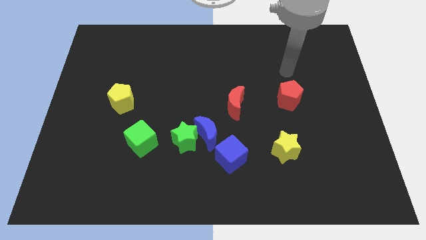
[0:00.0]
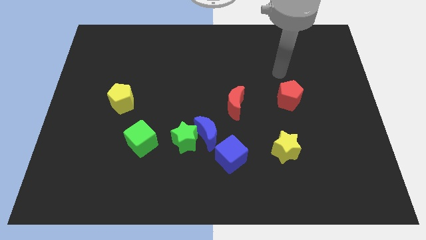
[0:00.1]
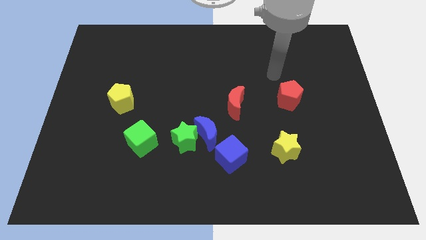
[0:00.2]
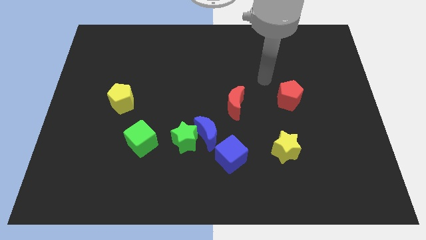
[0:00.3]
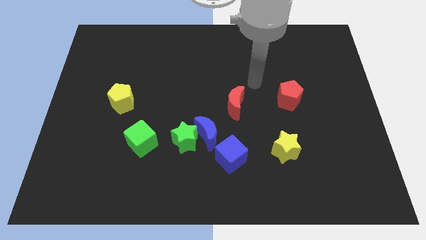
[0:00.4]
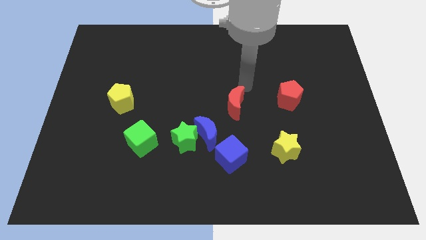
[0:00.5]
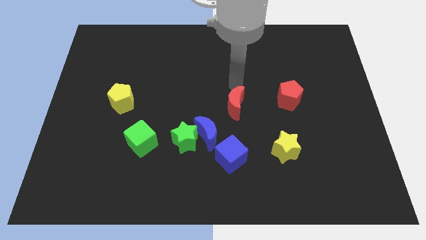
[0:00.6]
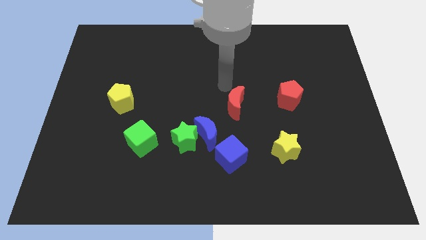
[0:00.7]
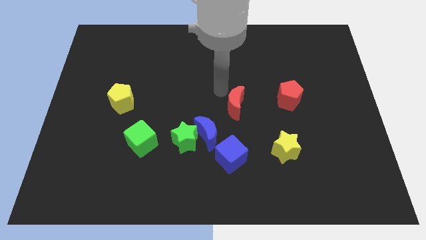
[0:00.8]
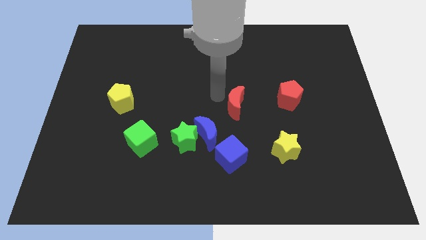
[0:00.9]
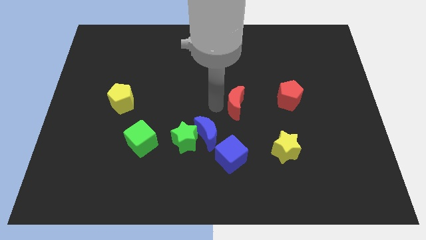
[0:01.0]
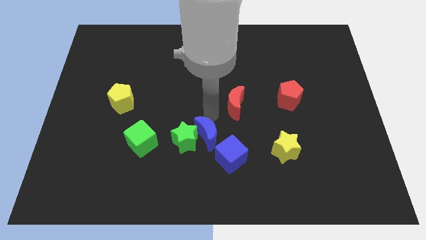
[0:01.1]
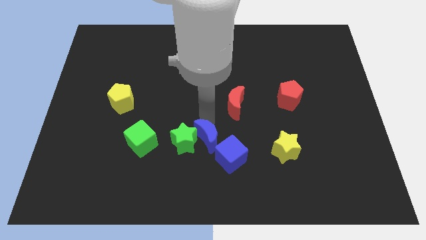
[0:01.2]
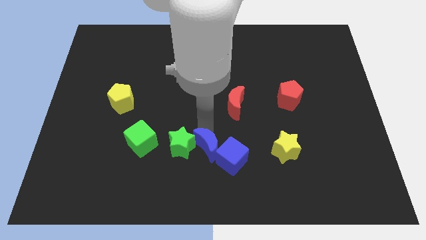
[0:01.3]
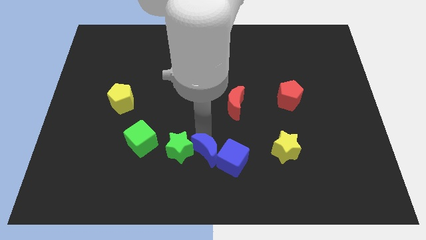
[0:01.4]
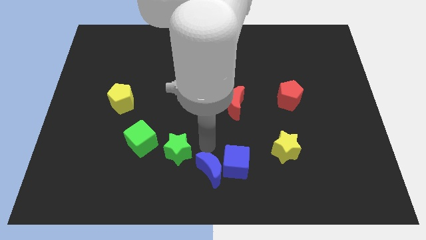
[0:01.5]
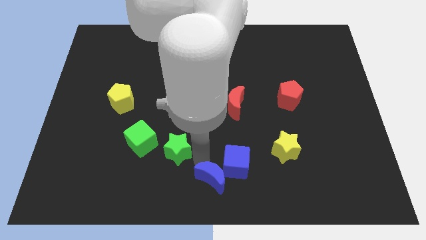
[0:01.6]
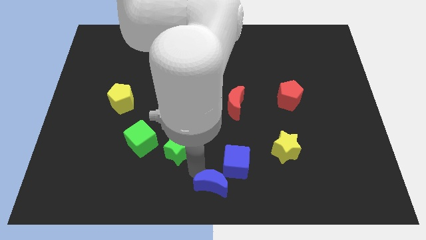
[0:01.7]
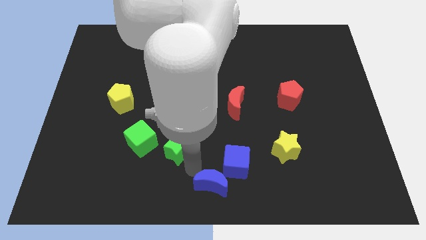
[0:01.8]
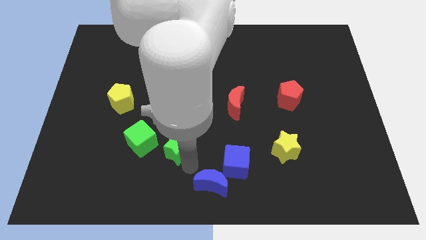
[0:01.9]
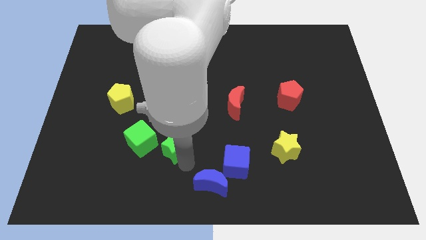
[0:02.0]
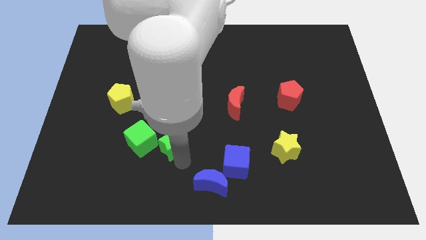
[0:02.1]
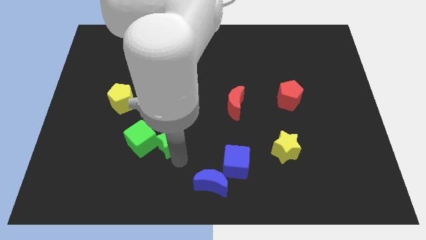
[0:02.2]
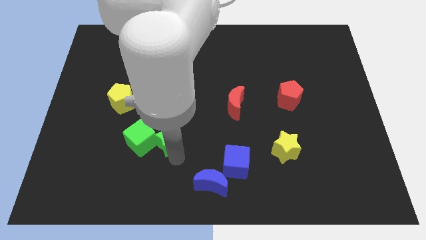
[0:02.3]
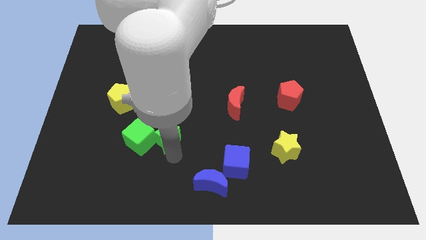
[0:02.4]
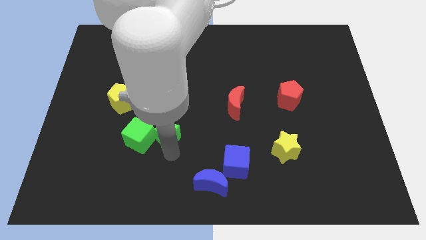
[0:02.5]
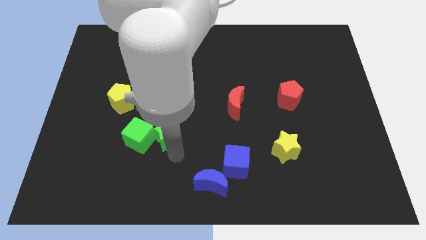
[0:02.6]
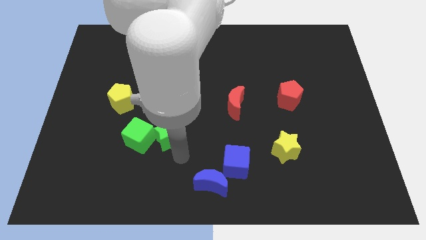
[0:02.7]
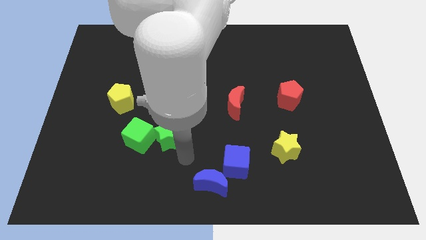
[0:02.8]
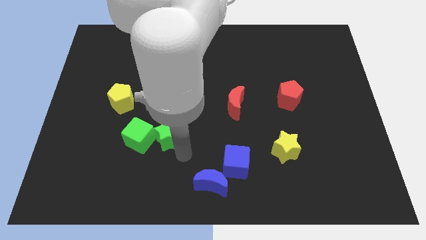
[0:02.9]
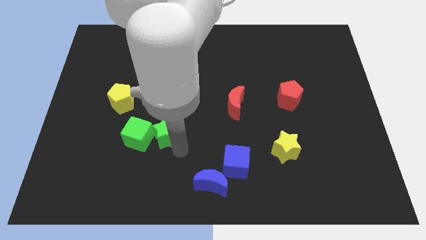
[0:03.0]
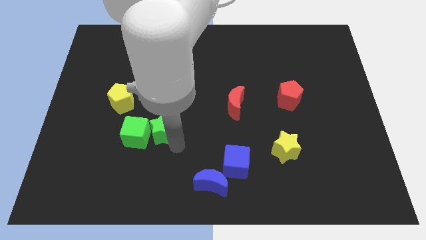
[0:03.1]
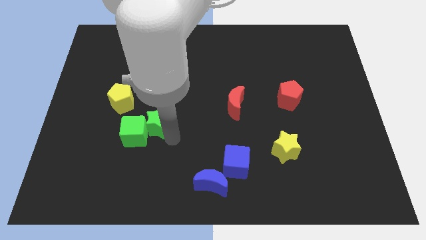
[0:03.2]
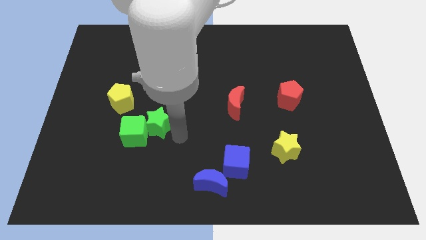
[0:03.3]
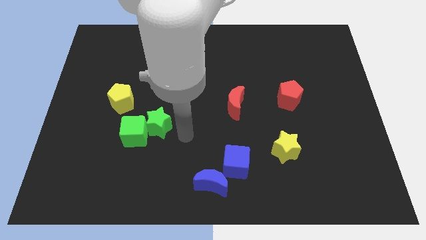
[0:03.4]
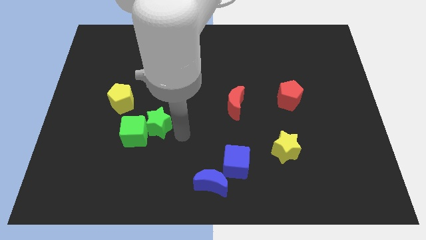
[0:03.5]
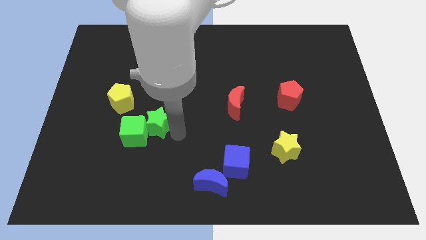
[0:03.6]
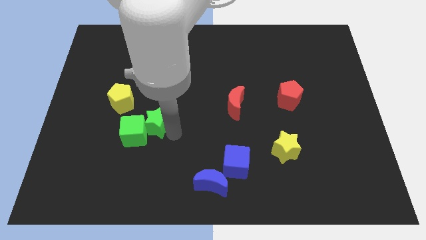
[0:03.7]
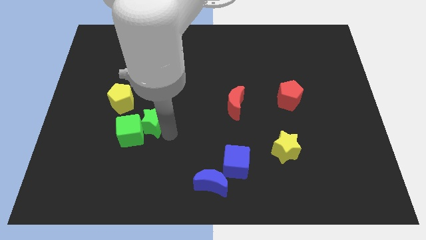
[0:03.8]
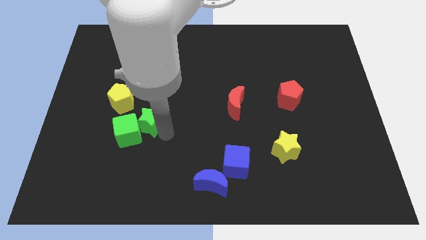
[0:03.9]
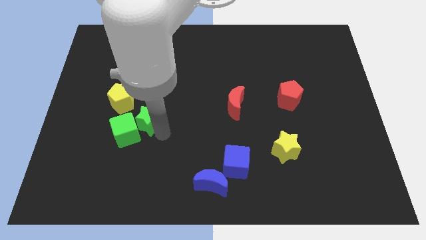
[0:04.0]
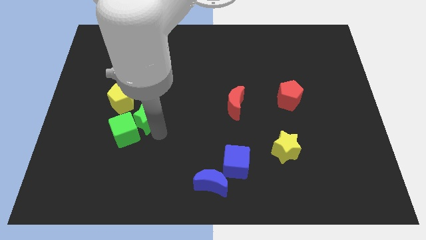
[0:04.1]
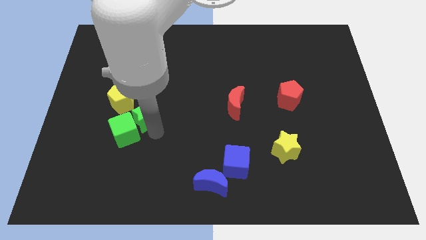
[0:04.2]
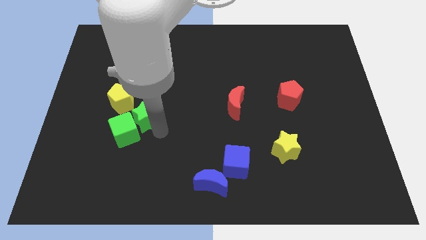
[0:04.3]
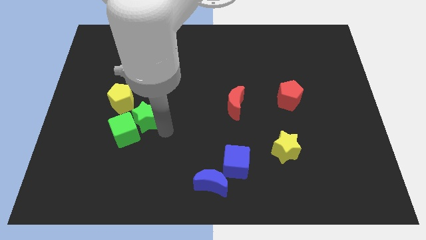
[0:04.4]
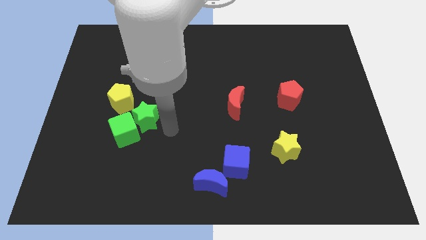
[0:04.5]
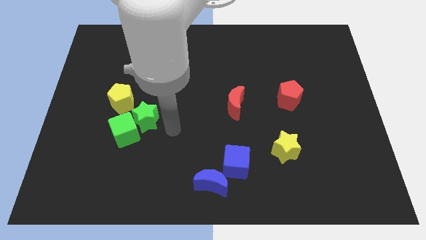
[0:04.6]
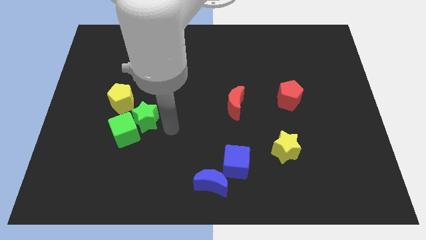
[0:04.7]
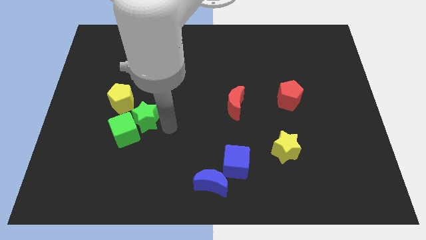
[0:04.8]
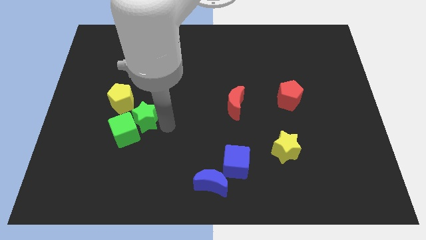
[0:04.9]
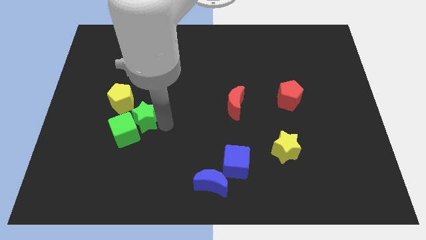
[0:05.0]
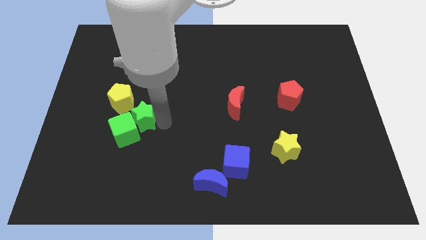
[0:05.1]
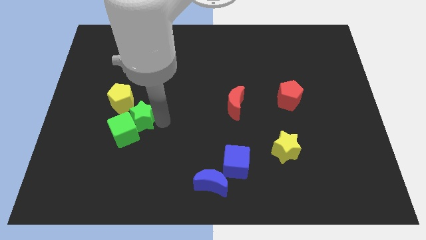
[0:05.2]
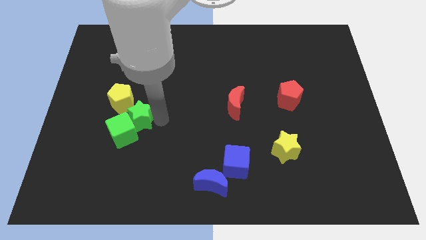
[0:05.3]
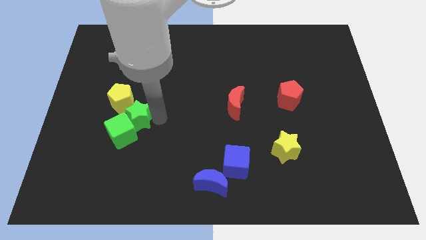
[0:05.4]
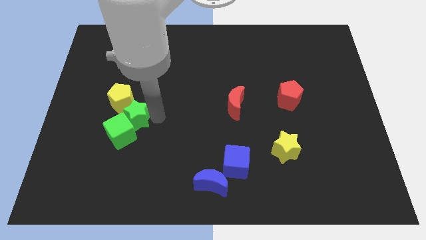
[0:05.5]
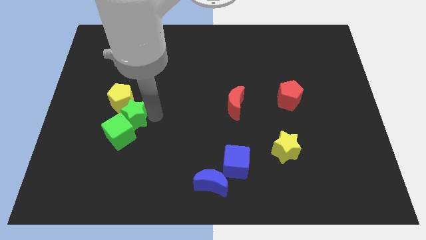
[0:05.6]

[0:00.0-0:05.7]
move the green star next to the yellow pentagon

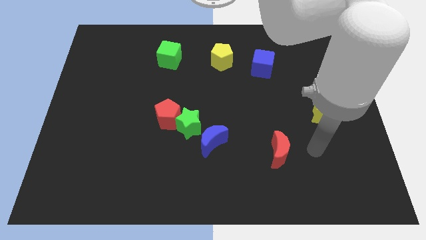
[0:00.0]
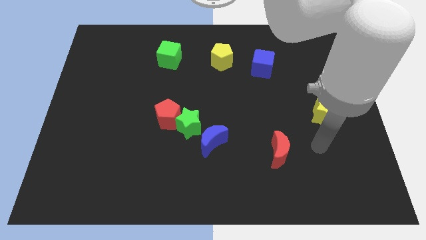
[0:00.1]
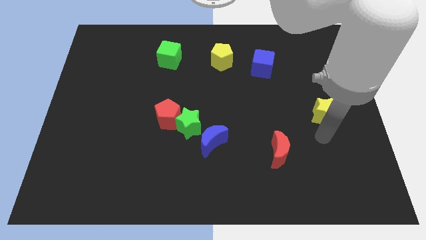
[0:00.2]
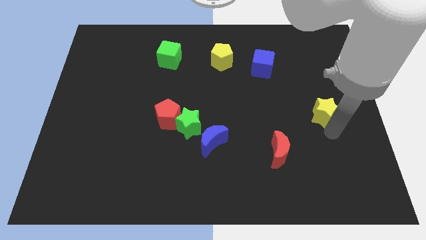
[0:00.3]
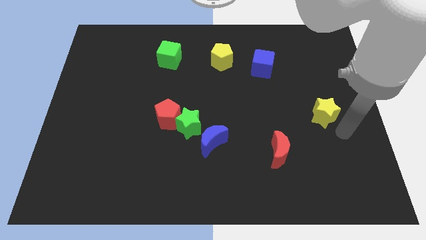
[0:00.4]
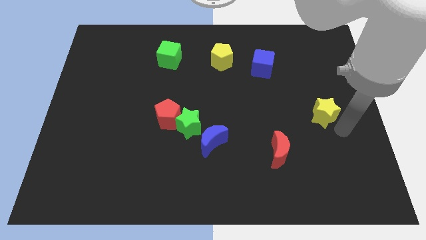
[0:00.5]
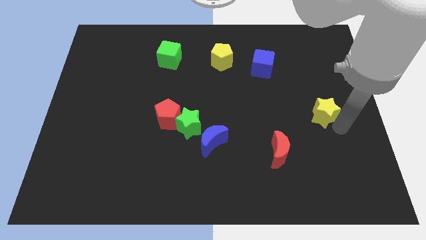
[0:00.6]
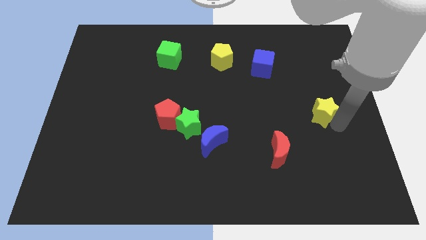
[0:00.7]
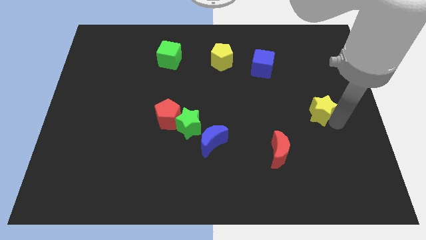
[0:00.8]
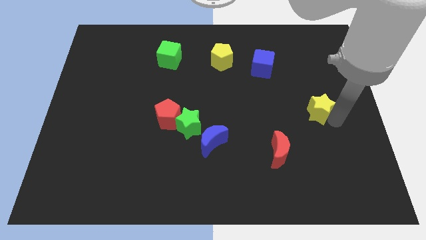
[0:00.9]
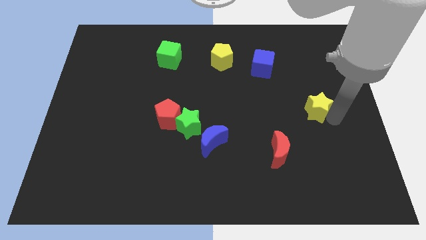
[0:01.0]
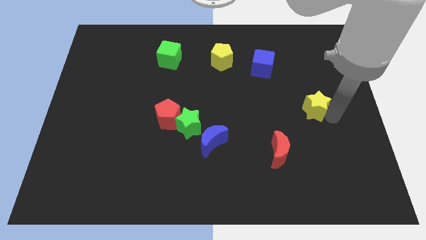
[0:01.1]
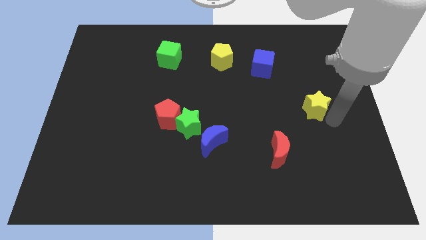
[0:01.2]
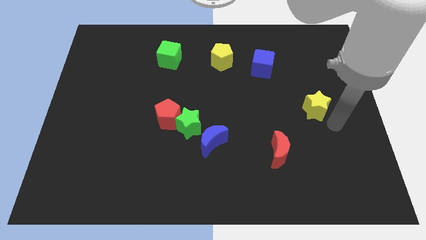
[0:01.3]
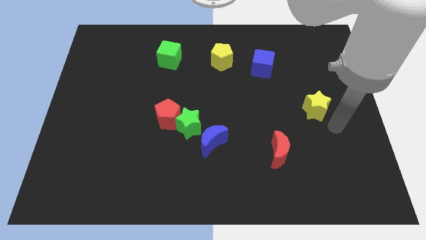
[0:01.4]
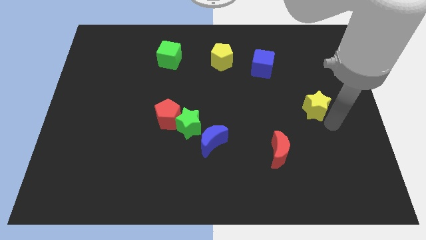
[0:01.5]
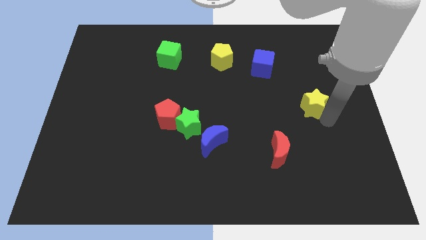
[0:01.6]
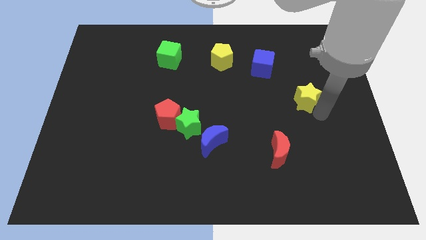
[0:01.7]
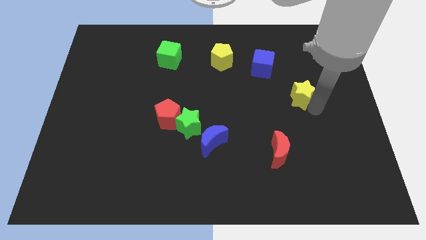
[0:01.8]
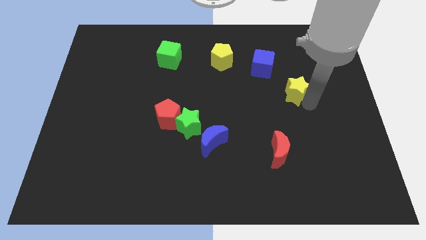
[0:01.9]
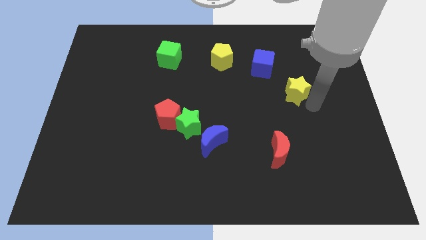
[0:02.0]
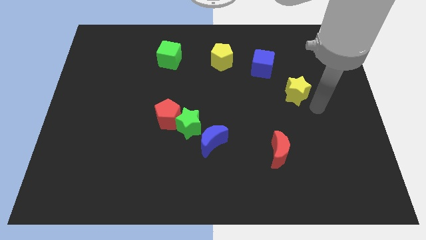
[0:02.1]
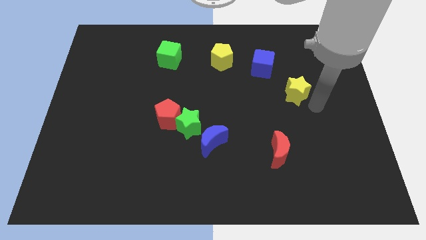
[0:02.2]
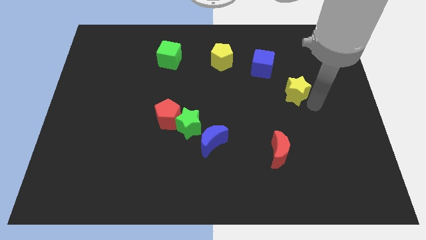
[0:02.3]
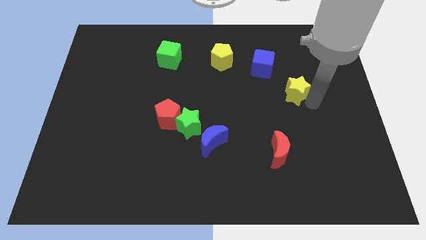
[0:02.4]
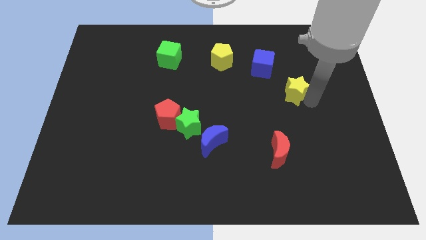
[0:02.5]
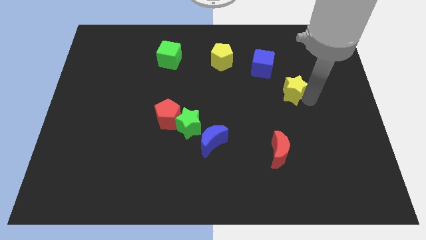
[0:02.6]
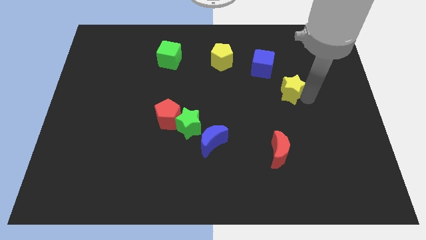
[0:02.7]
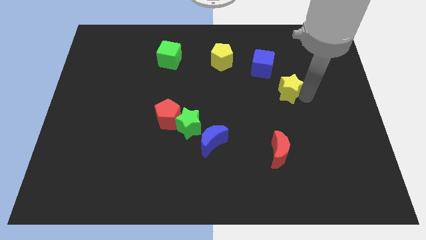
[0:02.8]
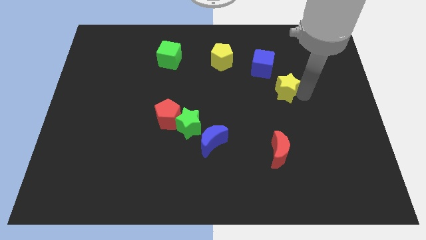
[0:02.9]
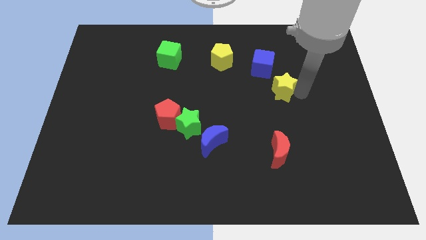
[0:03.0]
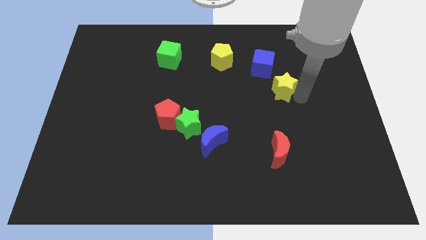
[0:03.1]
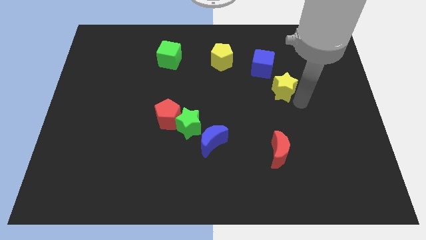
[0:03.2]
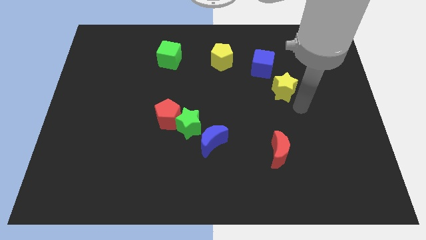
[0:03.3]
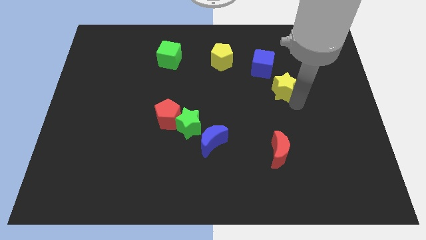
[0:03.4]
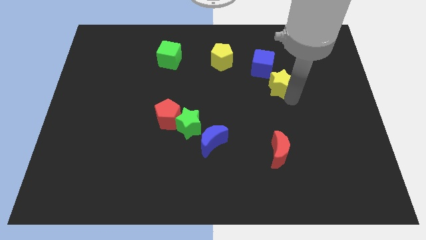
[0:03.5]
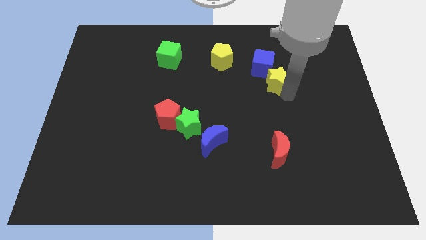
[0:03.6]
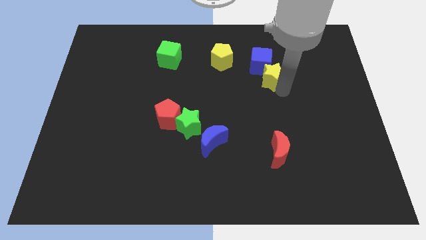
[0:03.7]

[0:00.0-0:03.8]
move the yellow star close to the blue cube
